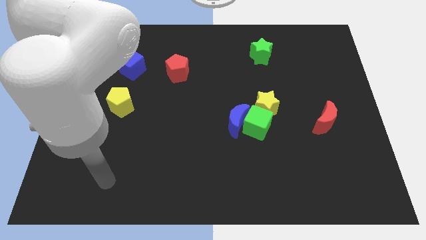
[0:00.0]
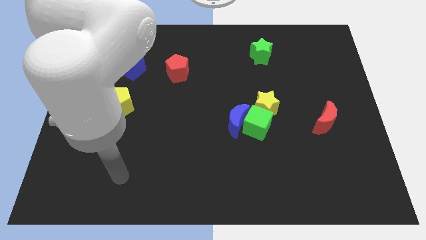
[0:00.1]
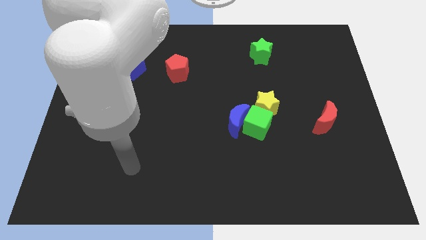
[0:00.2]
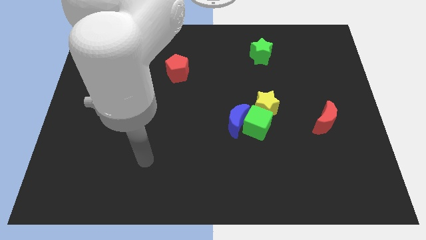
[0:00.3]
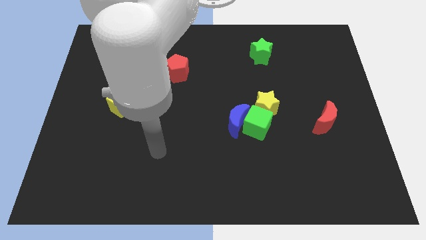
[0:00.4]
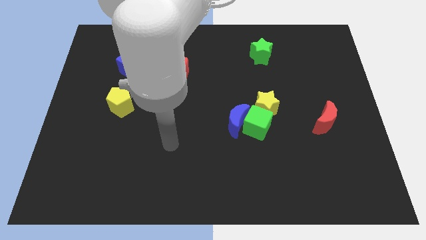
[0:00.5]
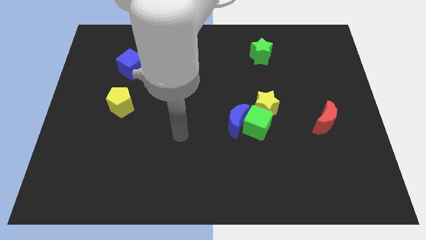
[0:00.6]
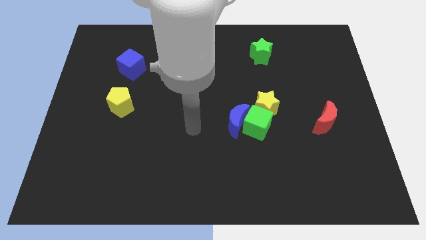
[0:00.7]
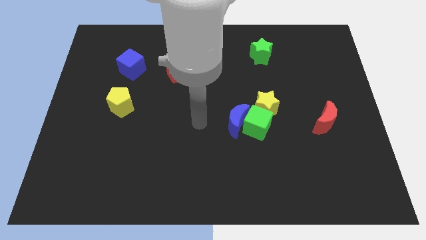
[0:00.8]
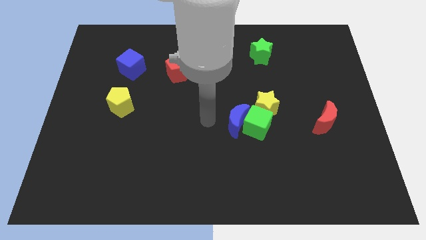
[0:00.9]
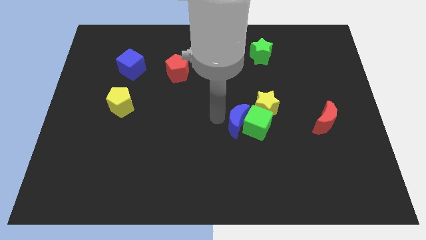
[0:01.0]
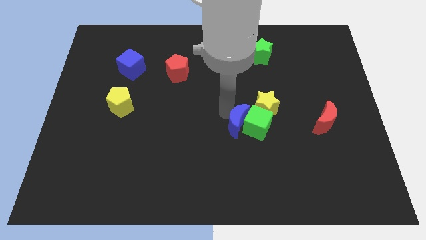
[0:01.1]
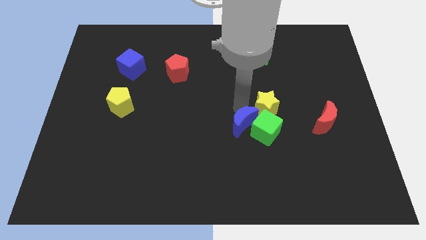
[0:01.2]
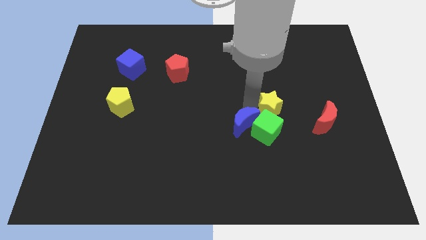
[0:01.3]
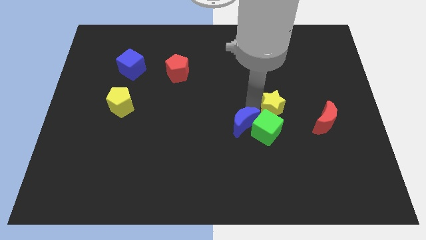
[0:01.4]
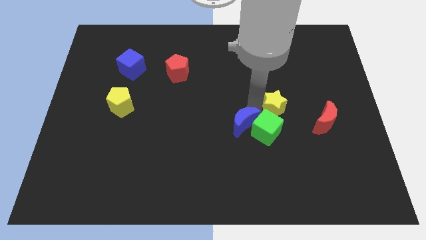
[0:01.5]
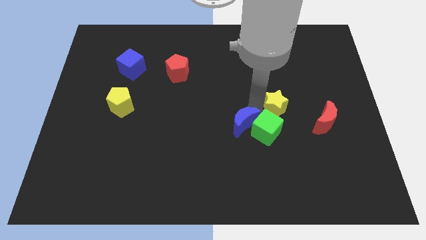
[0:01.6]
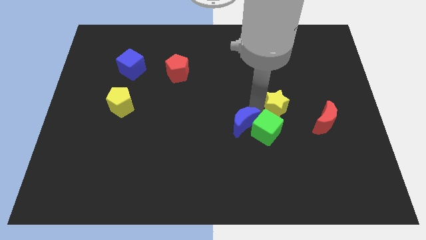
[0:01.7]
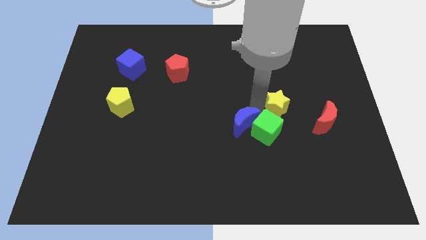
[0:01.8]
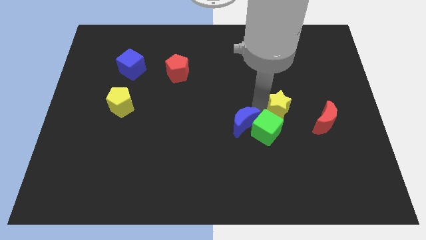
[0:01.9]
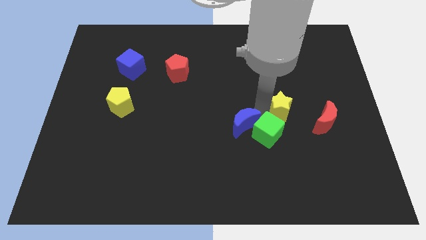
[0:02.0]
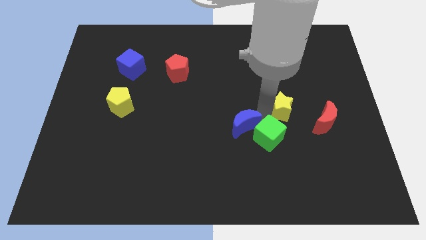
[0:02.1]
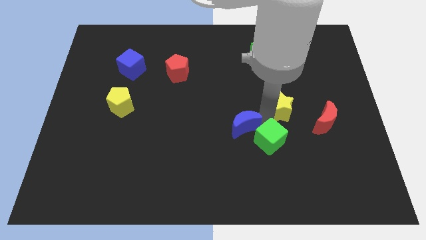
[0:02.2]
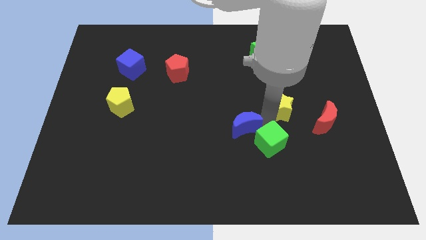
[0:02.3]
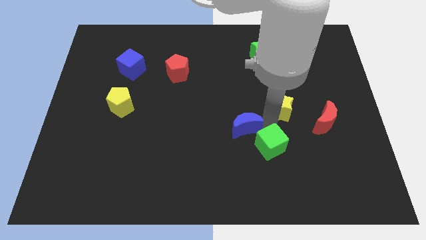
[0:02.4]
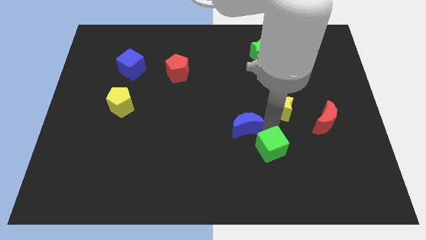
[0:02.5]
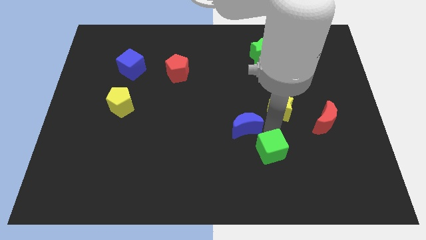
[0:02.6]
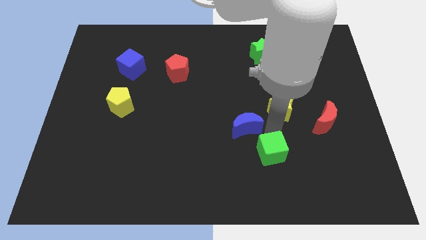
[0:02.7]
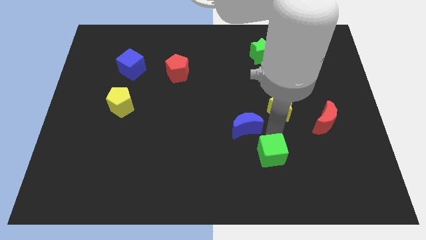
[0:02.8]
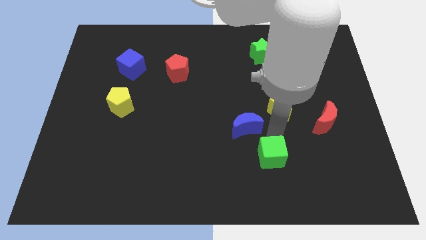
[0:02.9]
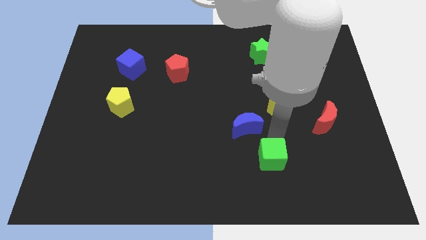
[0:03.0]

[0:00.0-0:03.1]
separate the green cube from the blue moon and yellow star

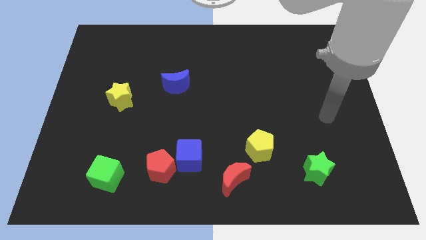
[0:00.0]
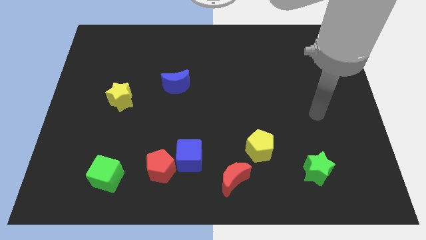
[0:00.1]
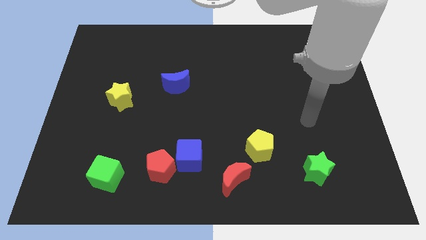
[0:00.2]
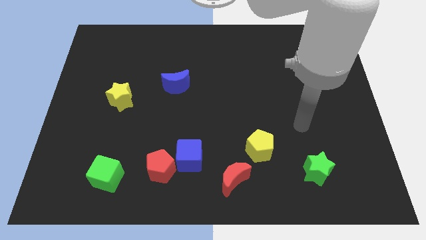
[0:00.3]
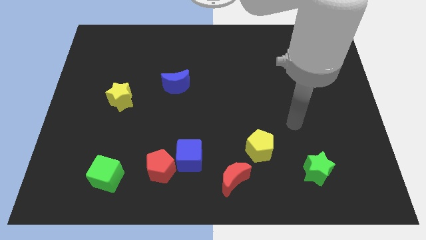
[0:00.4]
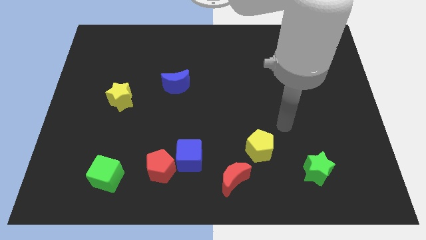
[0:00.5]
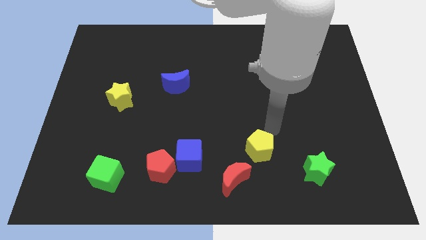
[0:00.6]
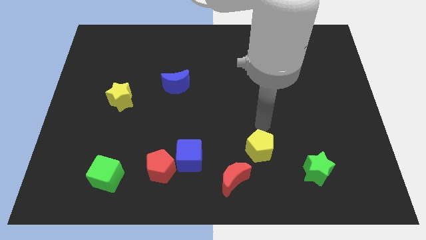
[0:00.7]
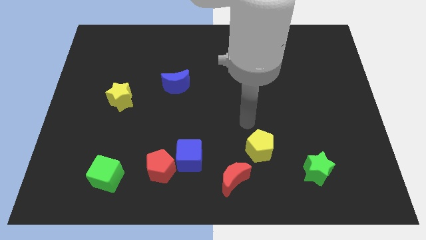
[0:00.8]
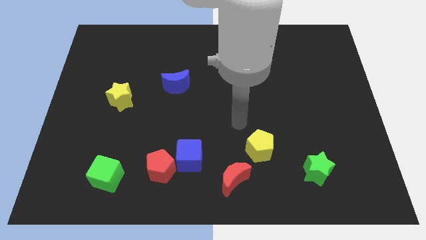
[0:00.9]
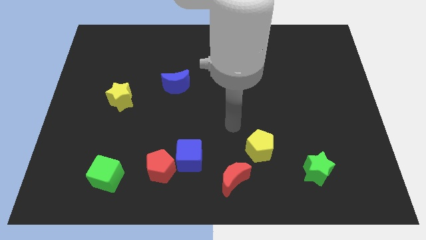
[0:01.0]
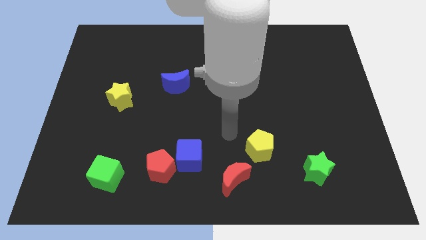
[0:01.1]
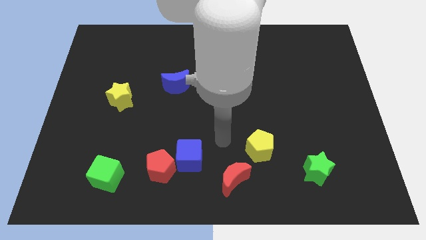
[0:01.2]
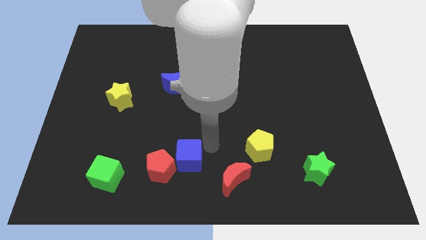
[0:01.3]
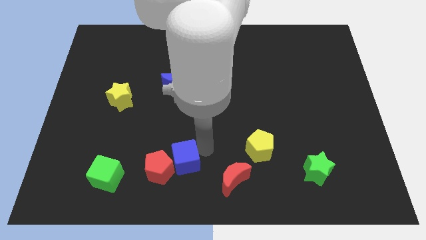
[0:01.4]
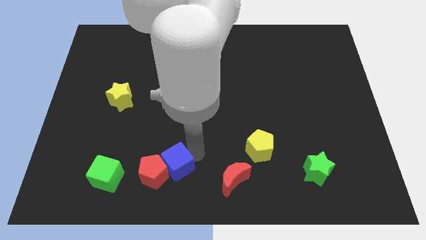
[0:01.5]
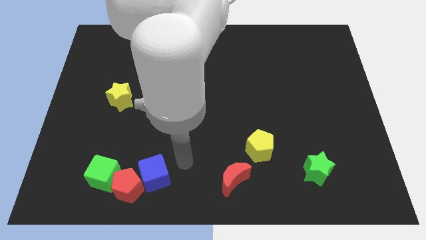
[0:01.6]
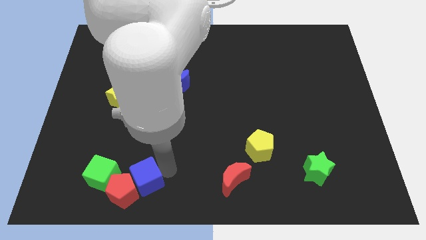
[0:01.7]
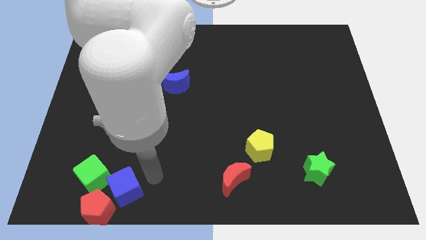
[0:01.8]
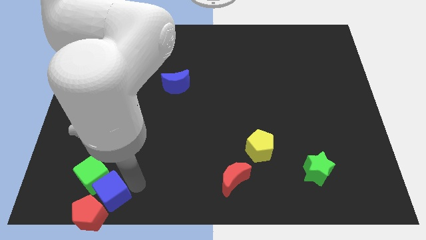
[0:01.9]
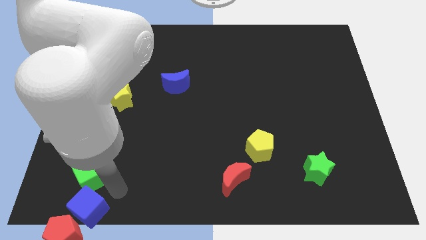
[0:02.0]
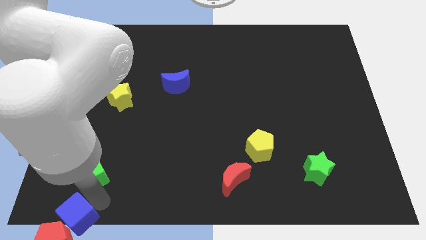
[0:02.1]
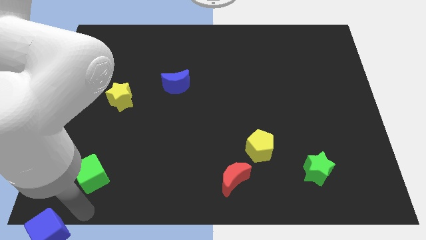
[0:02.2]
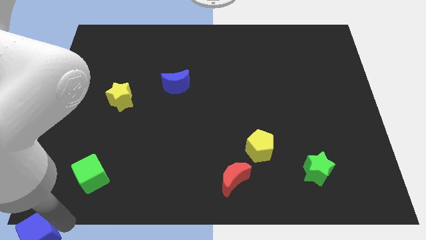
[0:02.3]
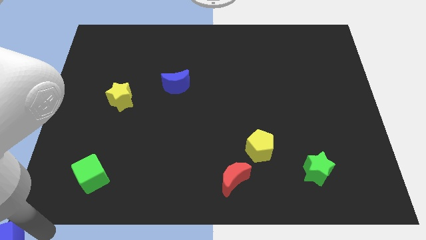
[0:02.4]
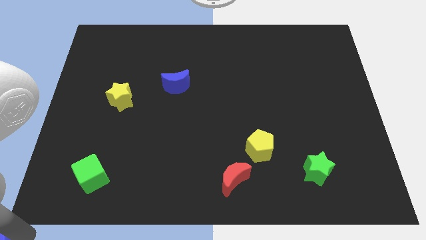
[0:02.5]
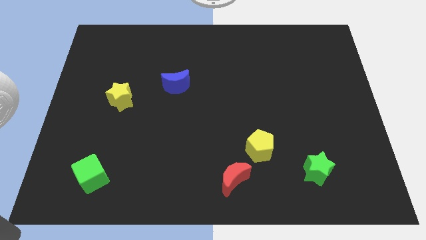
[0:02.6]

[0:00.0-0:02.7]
move the red pentagon away from the blue cube

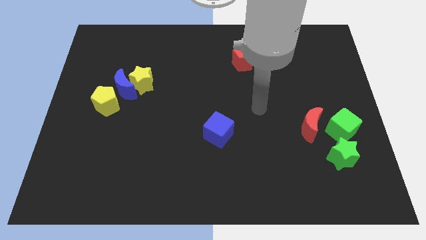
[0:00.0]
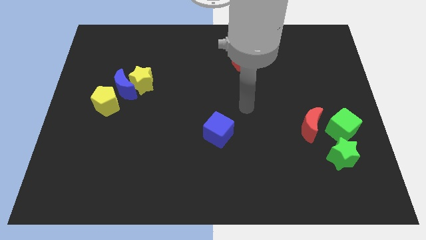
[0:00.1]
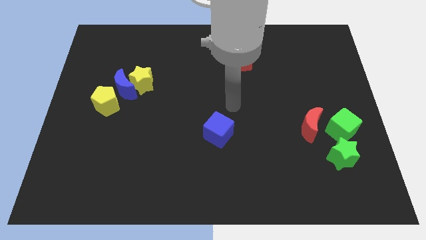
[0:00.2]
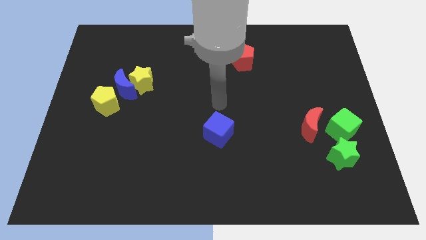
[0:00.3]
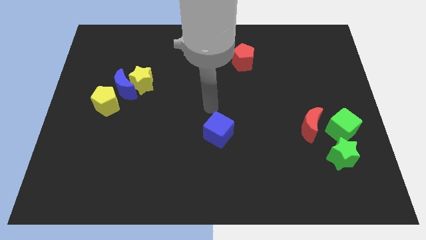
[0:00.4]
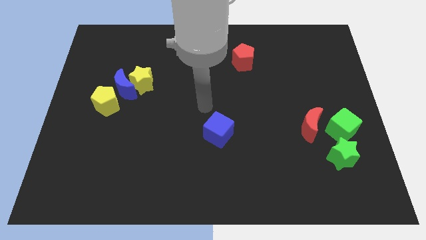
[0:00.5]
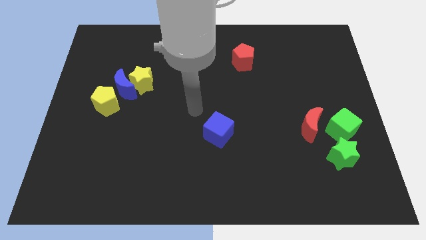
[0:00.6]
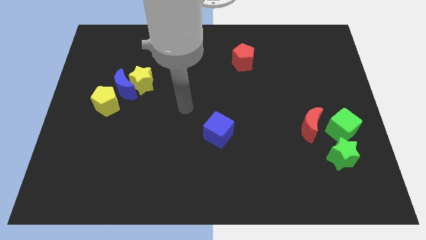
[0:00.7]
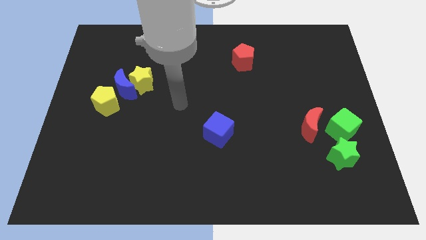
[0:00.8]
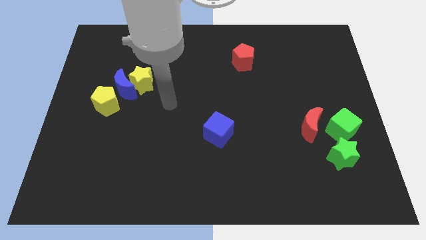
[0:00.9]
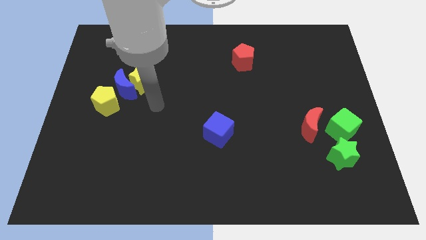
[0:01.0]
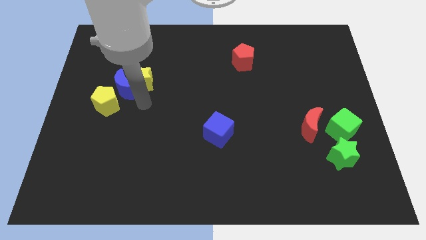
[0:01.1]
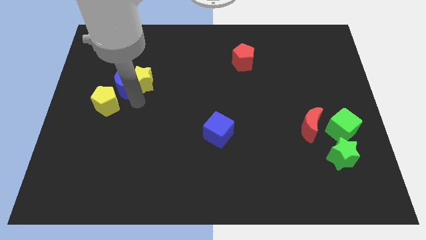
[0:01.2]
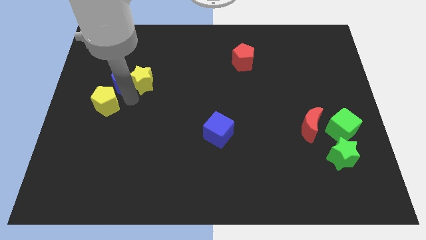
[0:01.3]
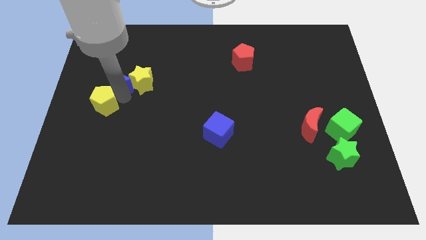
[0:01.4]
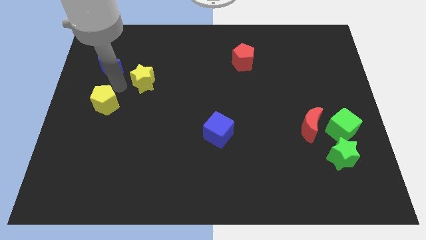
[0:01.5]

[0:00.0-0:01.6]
separate the yellow star from the blue moon

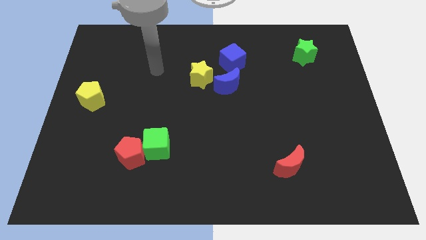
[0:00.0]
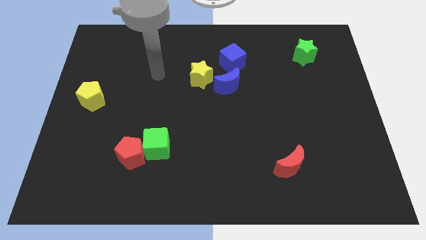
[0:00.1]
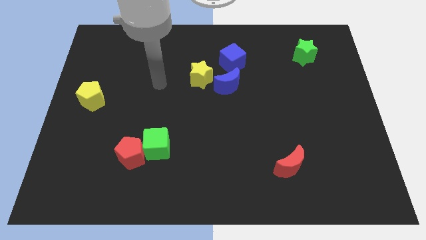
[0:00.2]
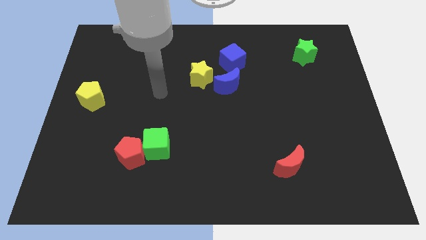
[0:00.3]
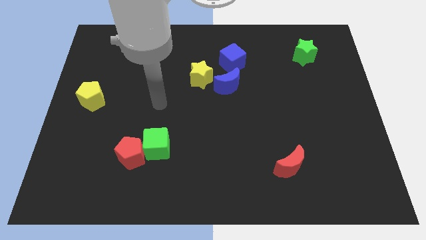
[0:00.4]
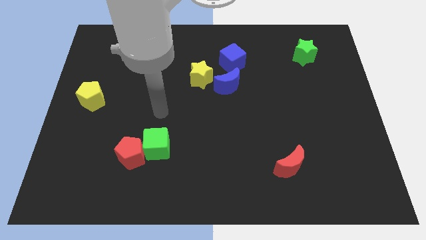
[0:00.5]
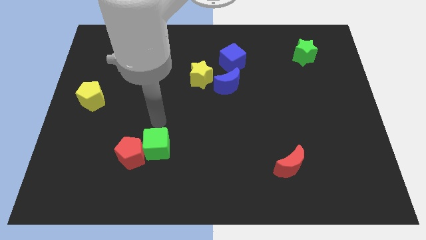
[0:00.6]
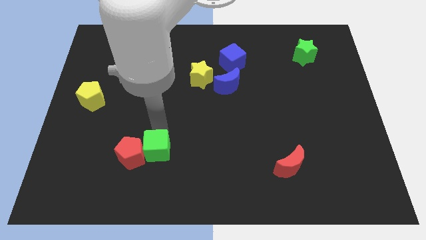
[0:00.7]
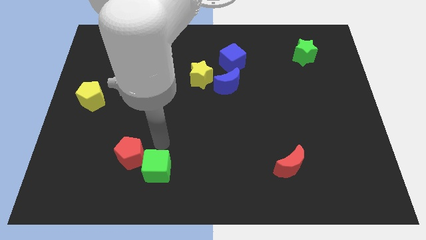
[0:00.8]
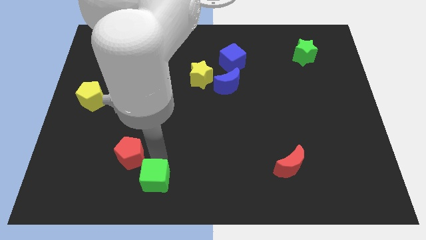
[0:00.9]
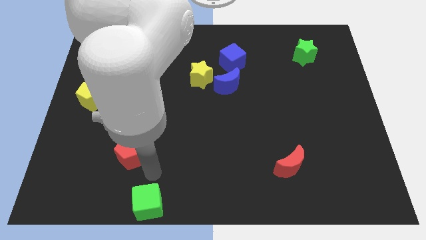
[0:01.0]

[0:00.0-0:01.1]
move the red pentagon away from the green cube

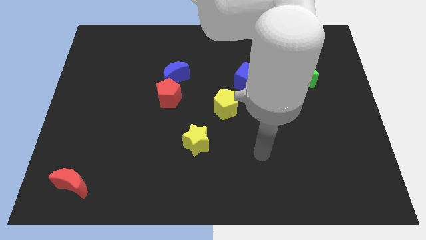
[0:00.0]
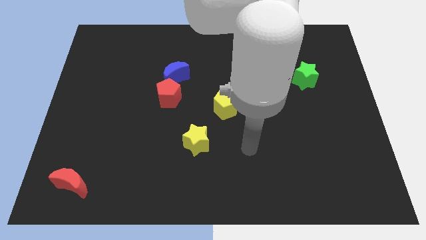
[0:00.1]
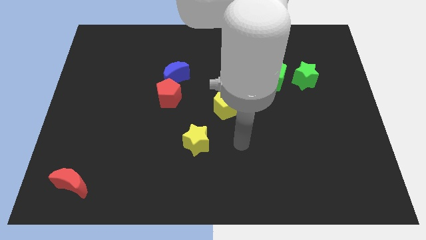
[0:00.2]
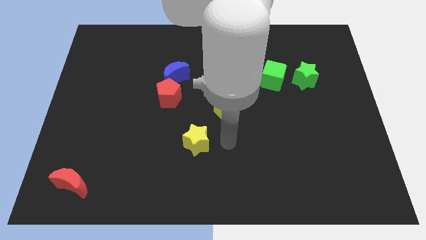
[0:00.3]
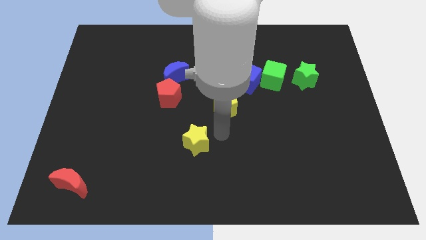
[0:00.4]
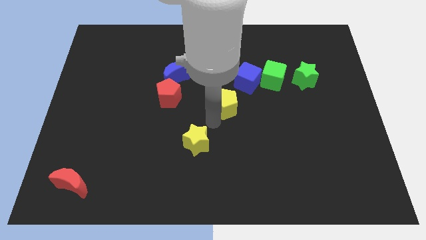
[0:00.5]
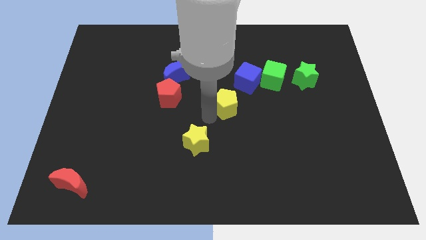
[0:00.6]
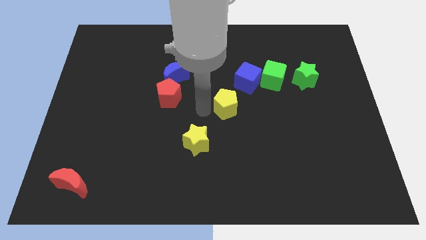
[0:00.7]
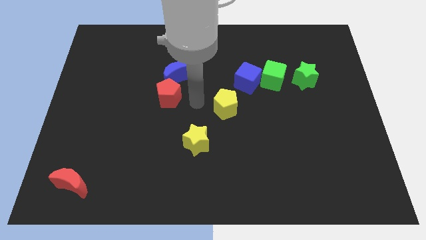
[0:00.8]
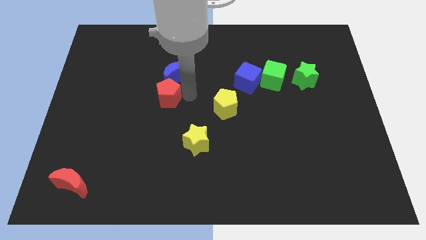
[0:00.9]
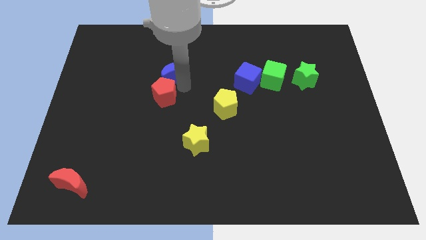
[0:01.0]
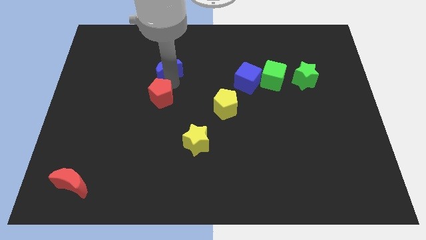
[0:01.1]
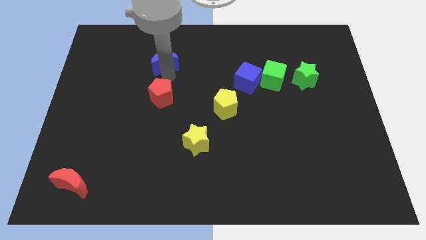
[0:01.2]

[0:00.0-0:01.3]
move the red pentagon away from the blue moon
